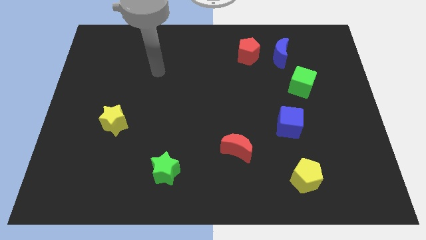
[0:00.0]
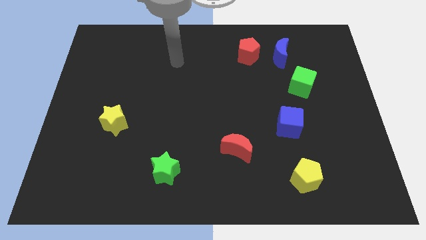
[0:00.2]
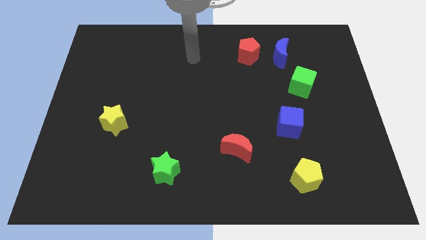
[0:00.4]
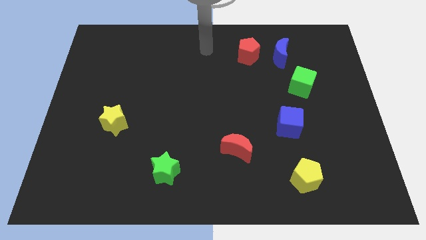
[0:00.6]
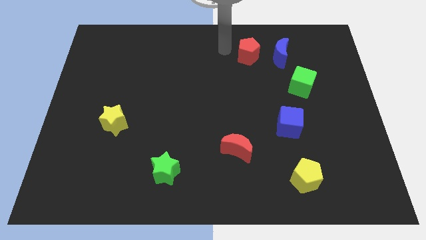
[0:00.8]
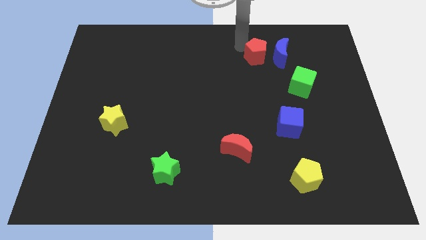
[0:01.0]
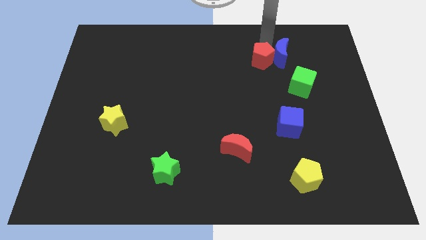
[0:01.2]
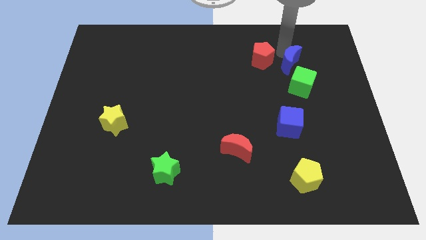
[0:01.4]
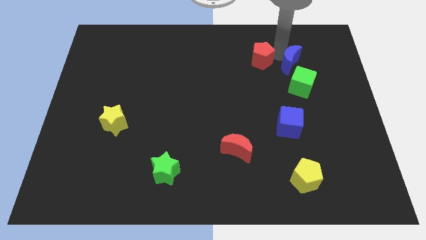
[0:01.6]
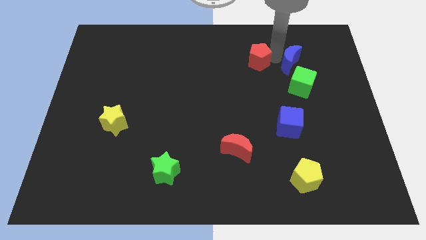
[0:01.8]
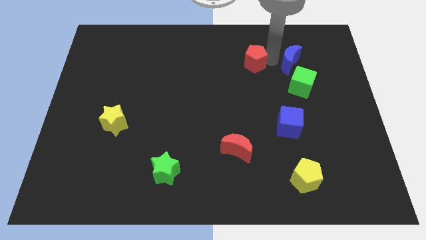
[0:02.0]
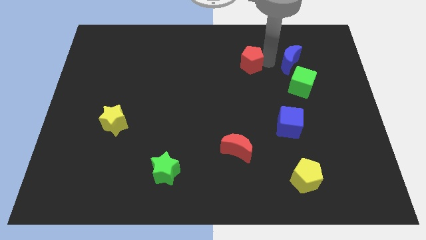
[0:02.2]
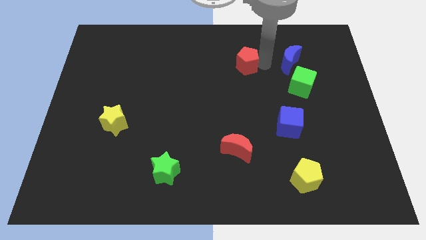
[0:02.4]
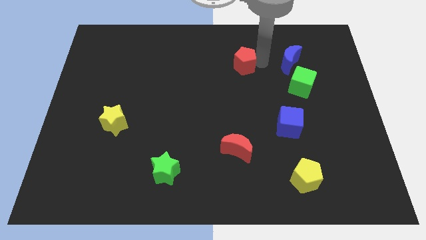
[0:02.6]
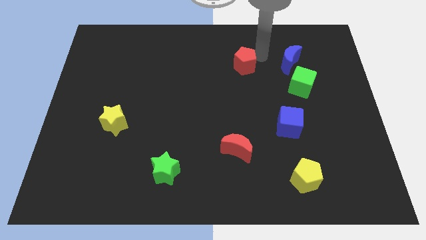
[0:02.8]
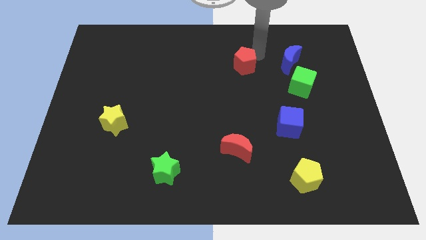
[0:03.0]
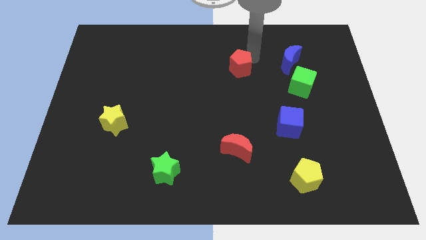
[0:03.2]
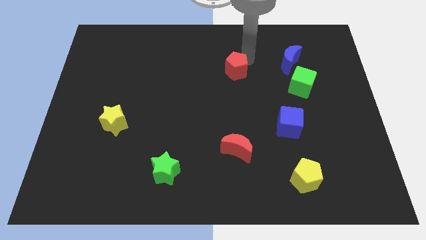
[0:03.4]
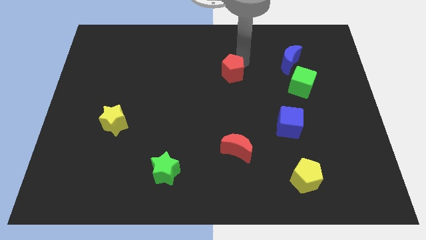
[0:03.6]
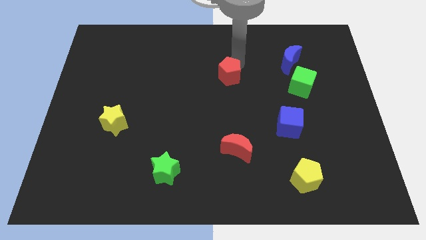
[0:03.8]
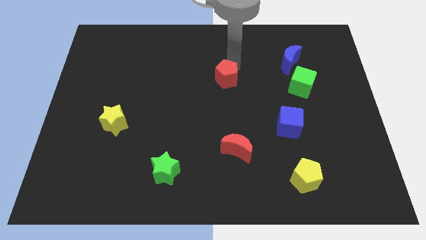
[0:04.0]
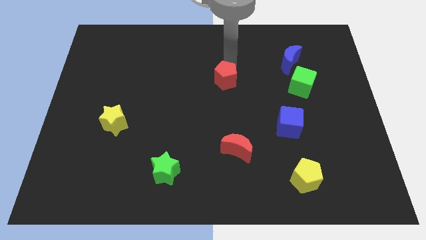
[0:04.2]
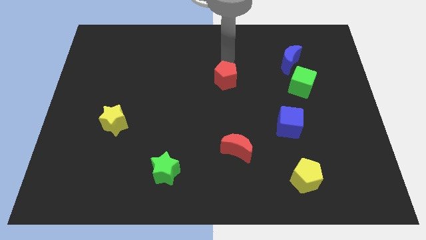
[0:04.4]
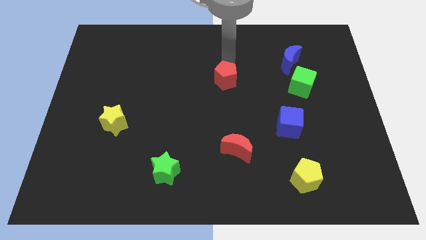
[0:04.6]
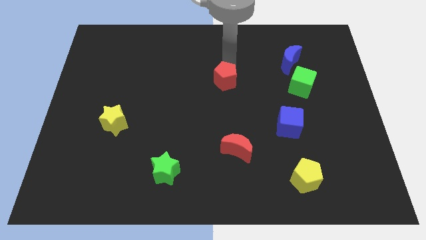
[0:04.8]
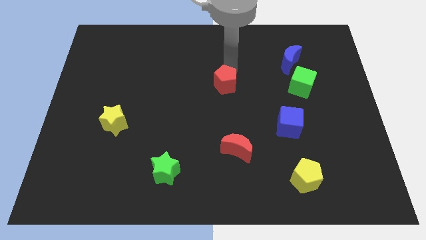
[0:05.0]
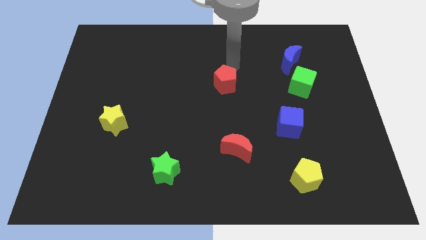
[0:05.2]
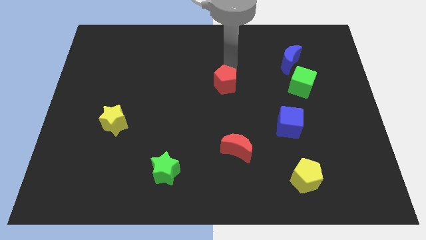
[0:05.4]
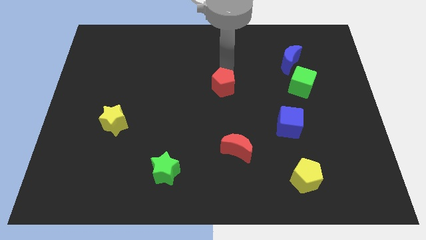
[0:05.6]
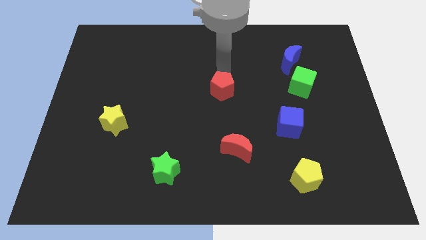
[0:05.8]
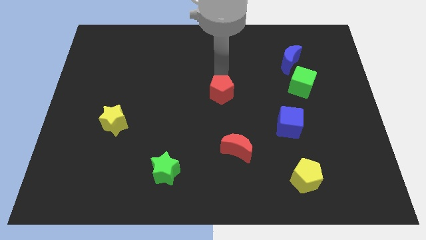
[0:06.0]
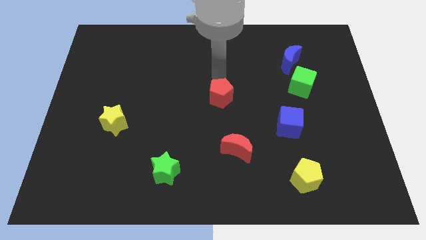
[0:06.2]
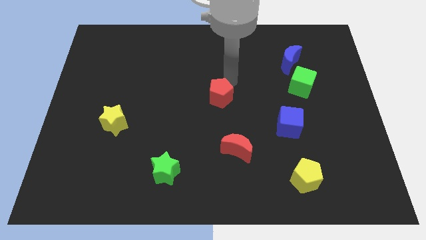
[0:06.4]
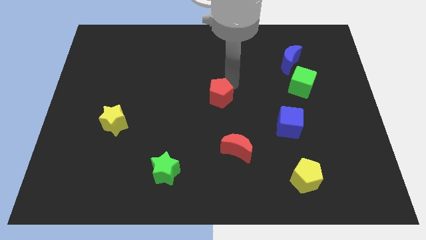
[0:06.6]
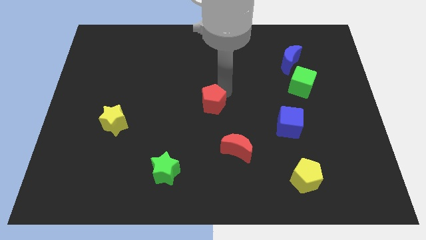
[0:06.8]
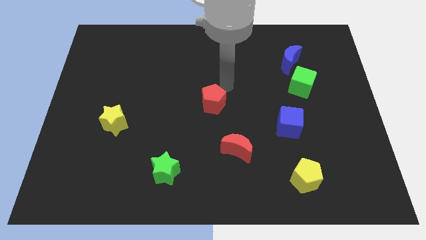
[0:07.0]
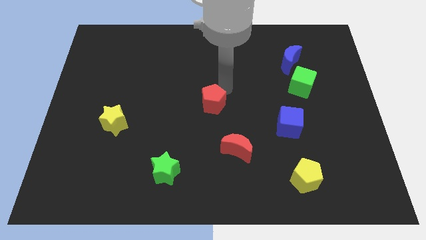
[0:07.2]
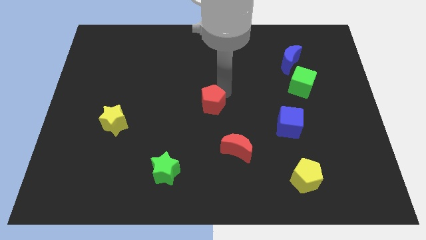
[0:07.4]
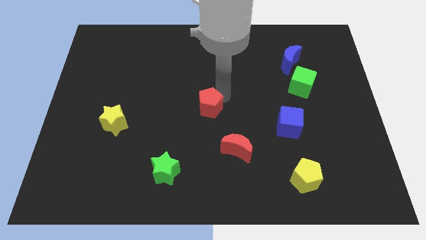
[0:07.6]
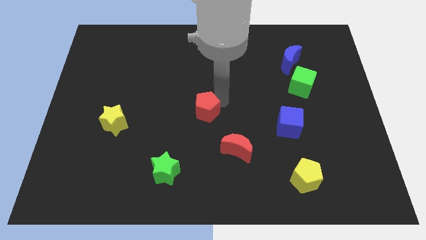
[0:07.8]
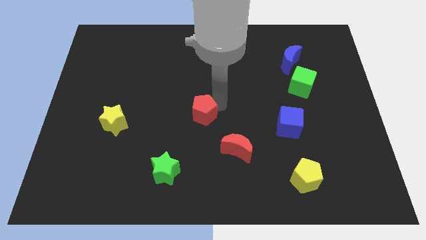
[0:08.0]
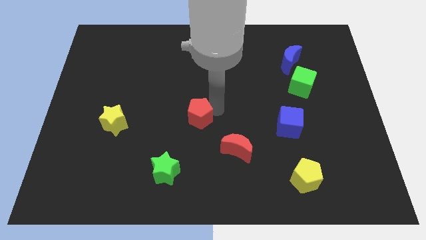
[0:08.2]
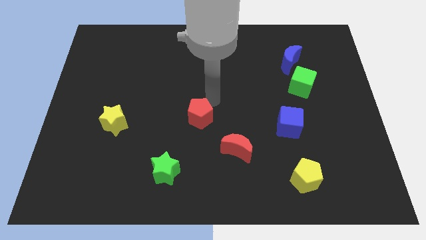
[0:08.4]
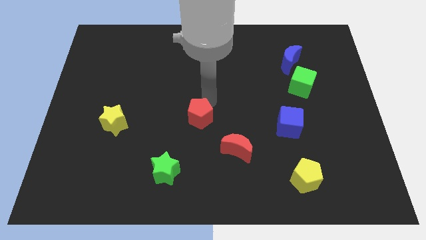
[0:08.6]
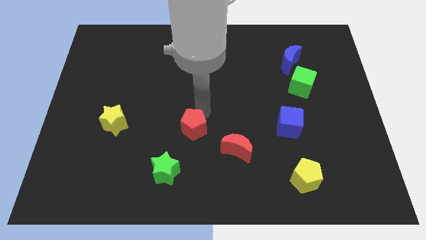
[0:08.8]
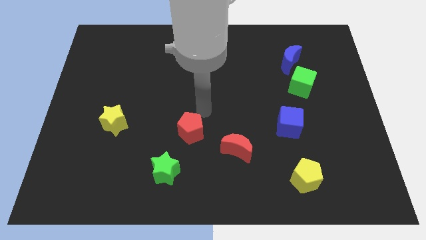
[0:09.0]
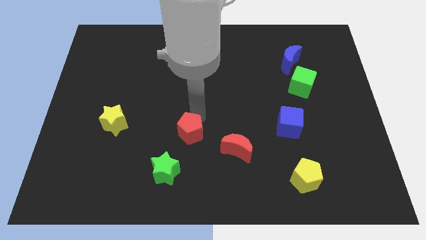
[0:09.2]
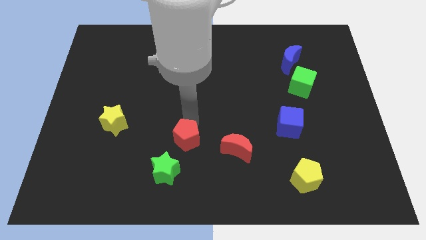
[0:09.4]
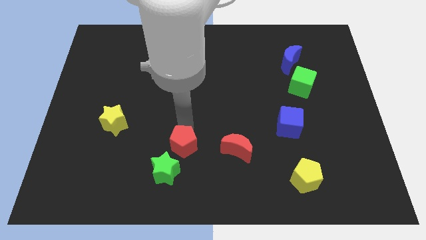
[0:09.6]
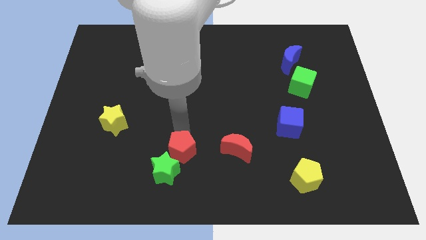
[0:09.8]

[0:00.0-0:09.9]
put the red pentagon next to the green star

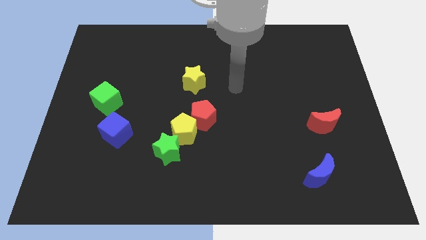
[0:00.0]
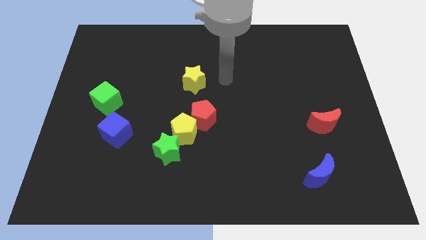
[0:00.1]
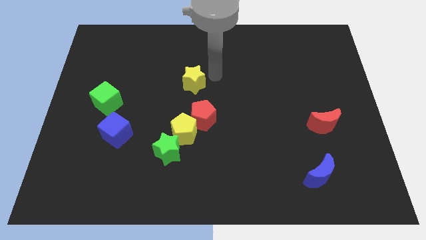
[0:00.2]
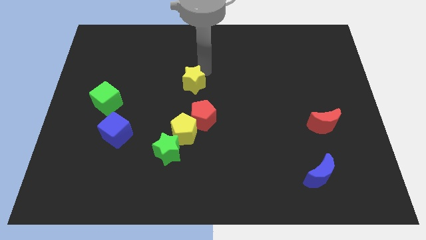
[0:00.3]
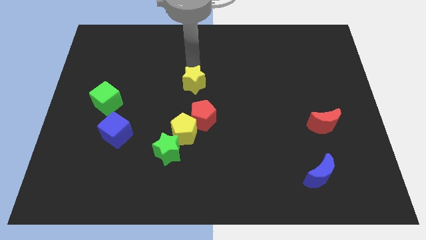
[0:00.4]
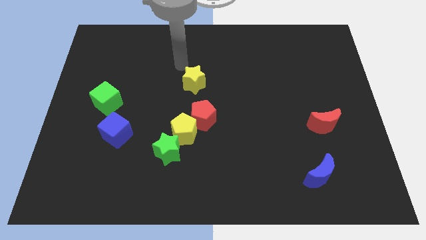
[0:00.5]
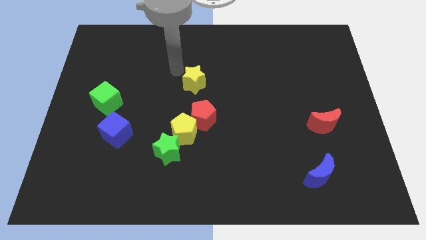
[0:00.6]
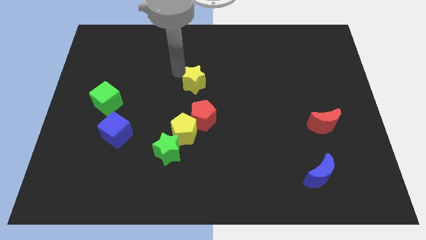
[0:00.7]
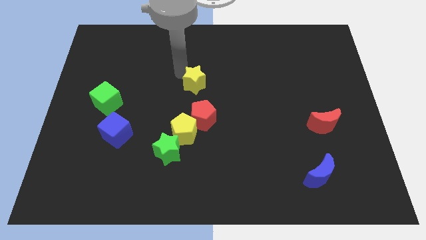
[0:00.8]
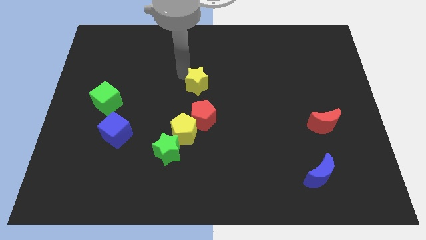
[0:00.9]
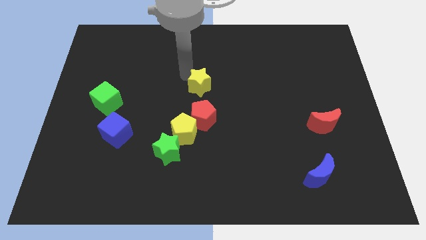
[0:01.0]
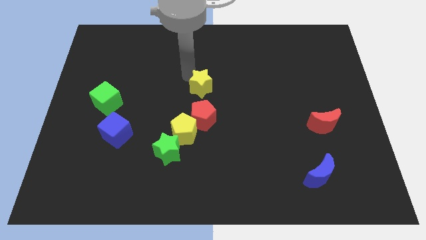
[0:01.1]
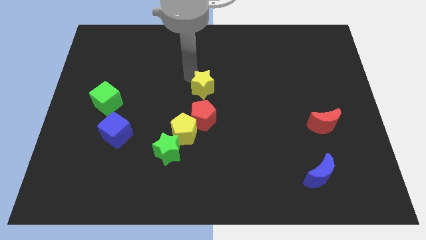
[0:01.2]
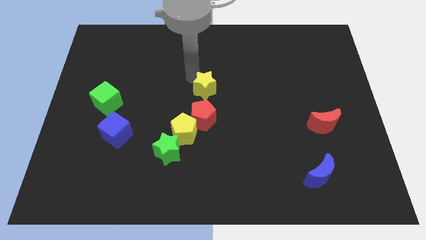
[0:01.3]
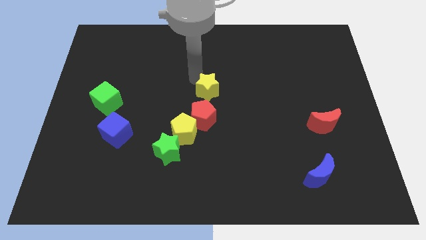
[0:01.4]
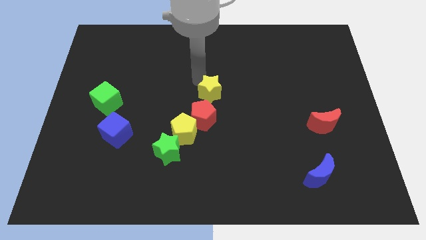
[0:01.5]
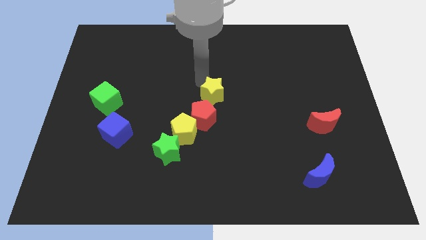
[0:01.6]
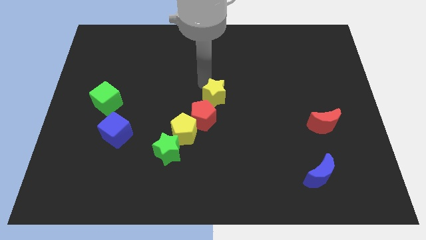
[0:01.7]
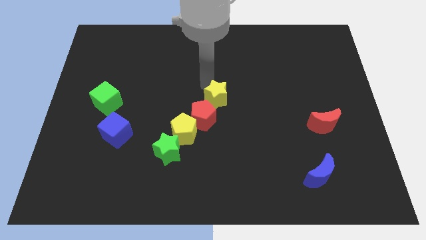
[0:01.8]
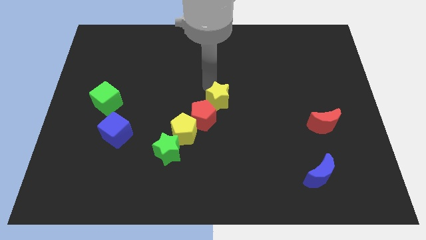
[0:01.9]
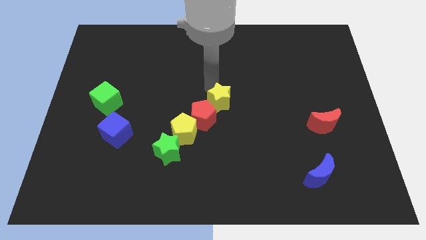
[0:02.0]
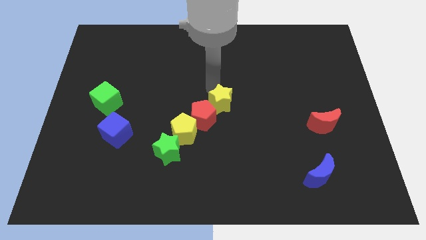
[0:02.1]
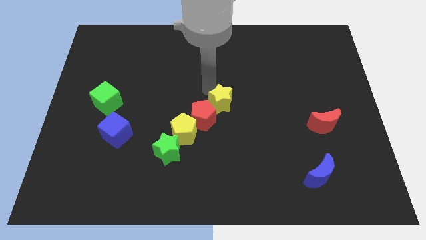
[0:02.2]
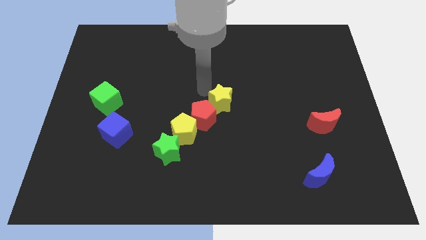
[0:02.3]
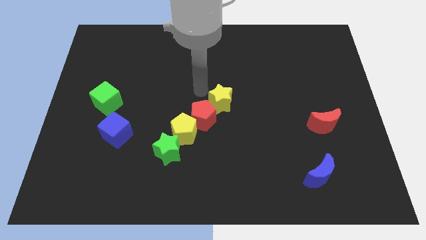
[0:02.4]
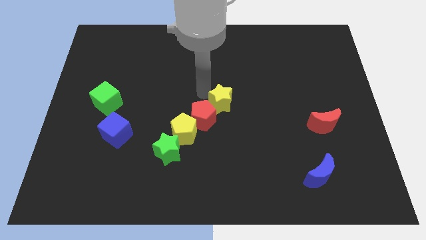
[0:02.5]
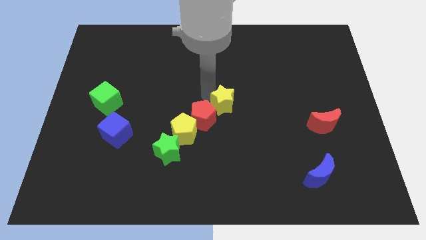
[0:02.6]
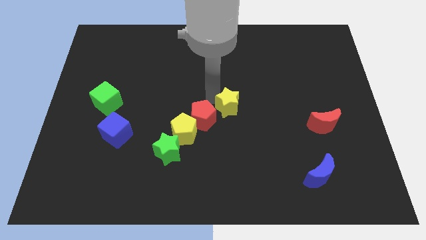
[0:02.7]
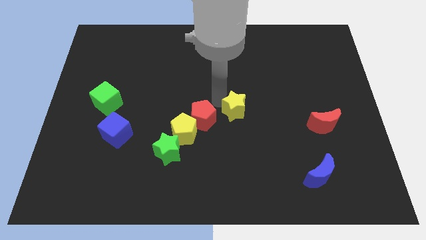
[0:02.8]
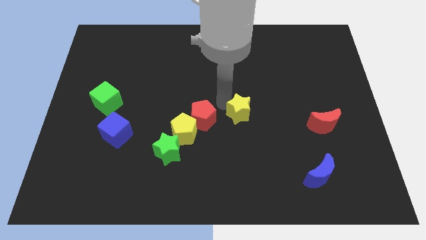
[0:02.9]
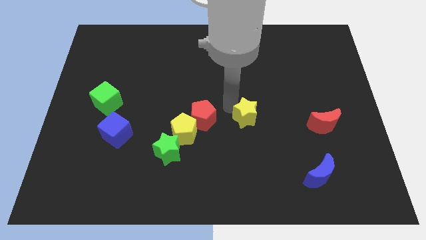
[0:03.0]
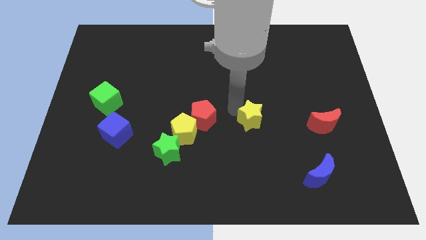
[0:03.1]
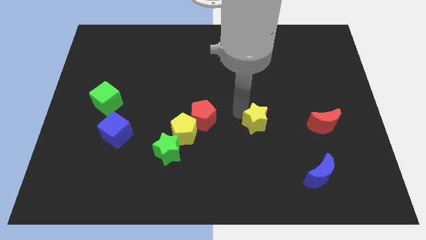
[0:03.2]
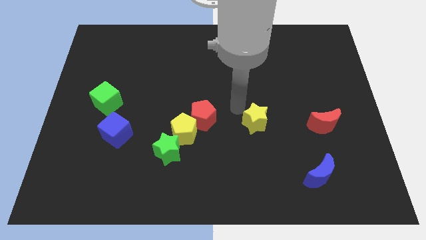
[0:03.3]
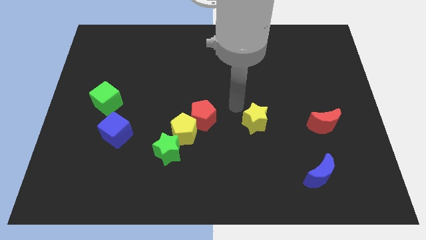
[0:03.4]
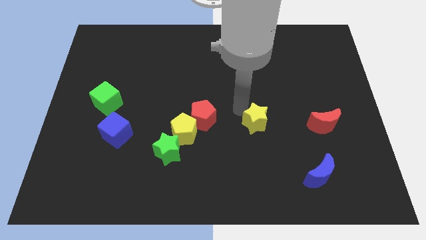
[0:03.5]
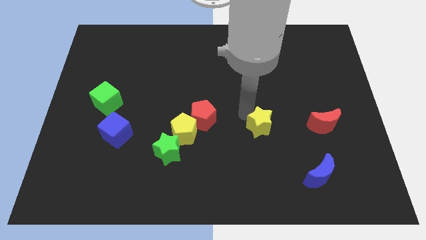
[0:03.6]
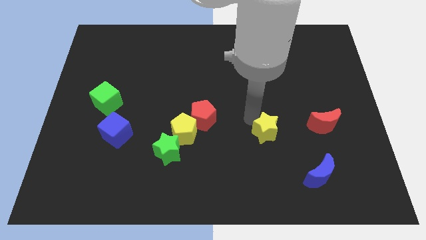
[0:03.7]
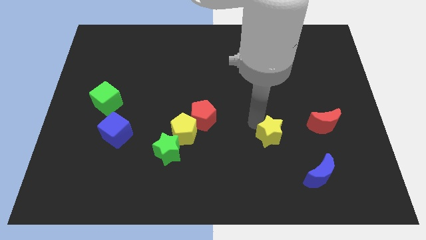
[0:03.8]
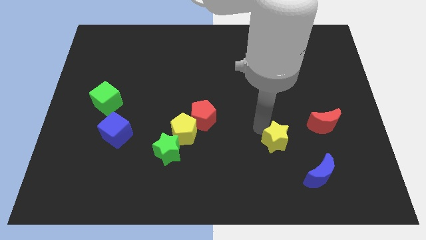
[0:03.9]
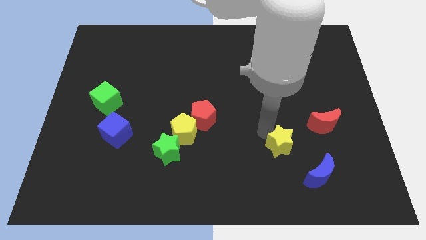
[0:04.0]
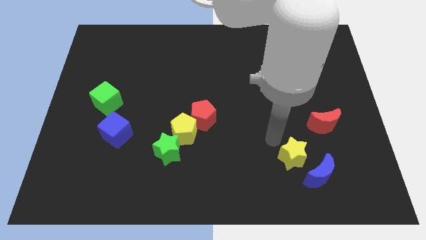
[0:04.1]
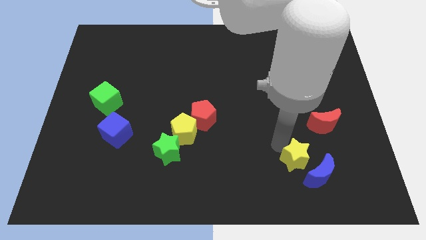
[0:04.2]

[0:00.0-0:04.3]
put the yellow star close to the blue moon
